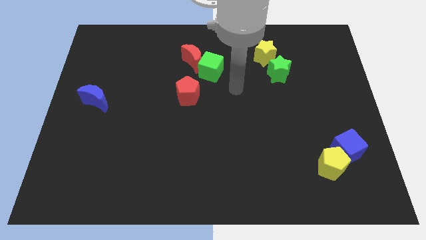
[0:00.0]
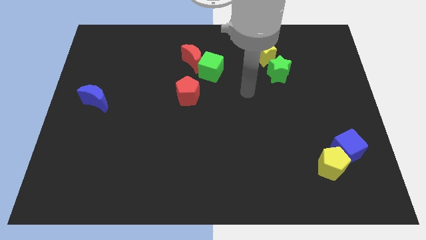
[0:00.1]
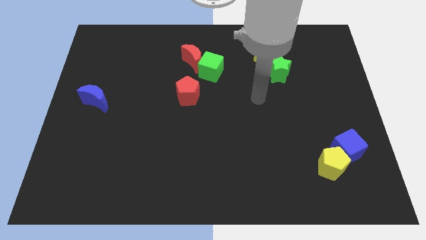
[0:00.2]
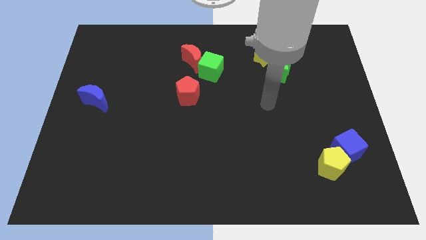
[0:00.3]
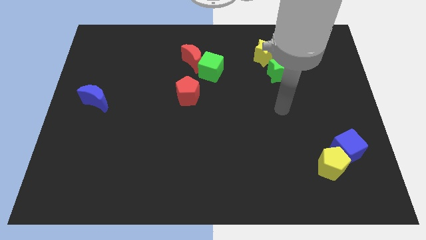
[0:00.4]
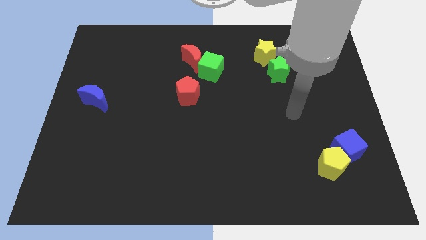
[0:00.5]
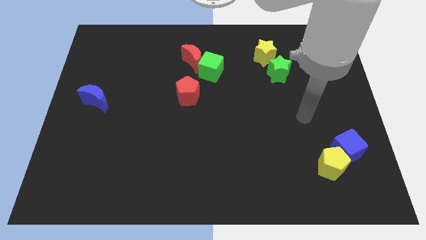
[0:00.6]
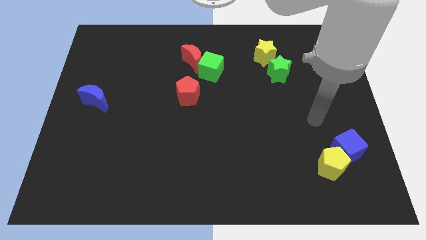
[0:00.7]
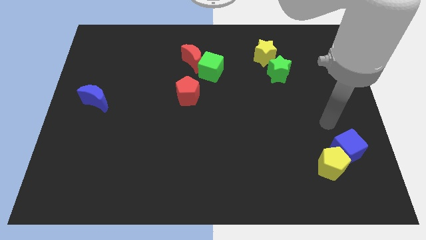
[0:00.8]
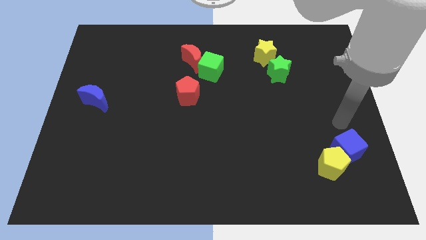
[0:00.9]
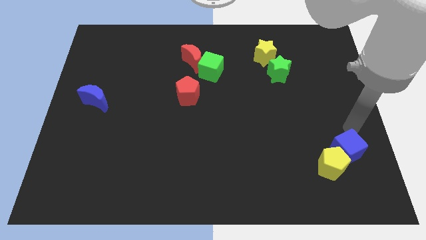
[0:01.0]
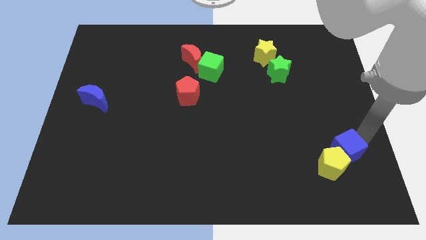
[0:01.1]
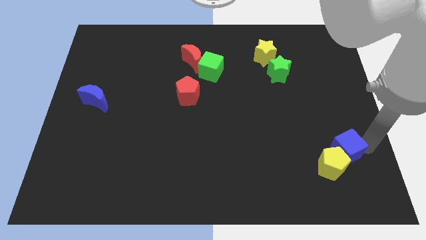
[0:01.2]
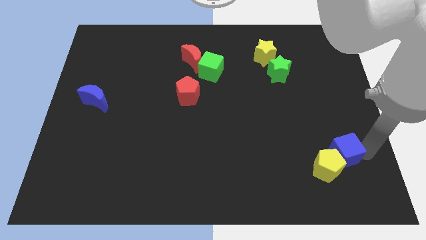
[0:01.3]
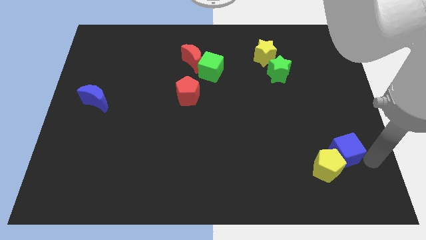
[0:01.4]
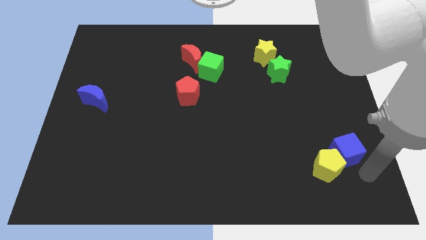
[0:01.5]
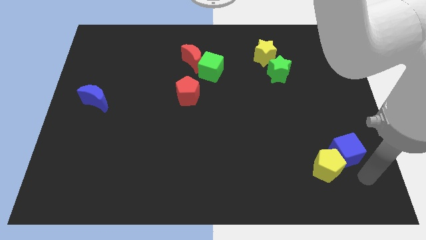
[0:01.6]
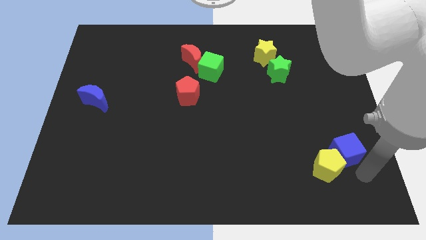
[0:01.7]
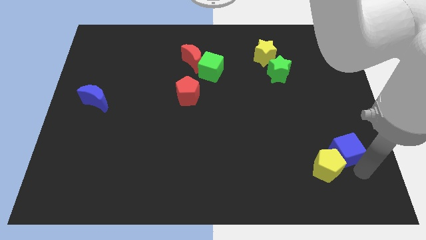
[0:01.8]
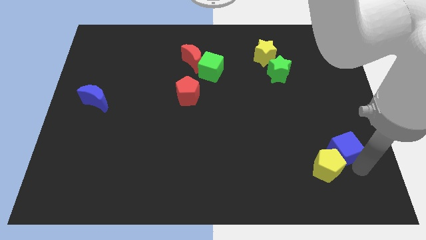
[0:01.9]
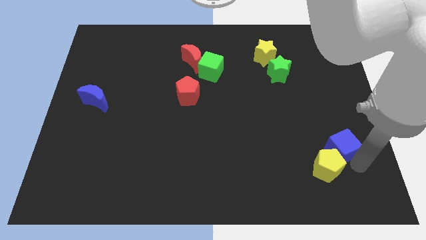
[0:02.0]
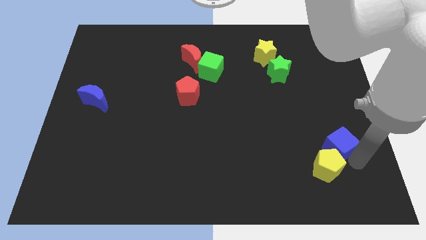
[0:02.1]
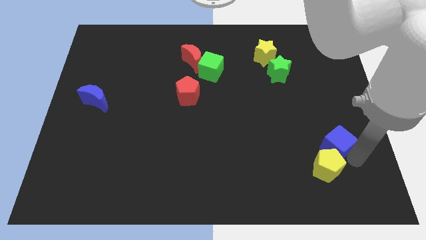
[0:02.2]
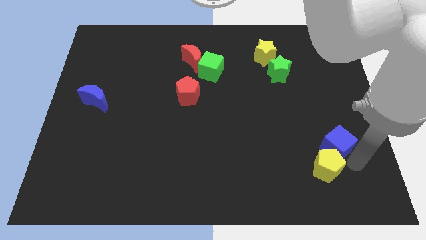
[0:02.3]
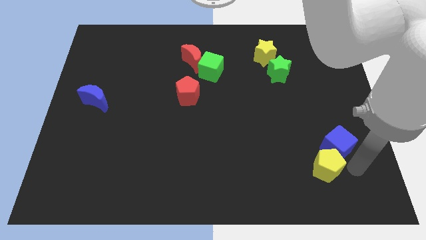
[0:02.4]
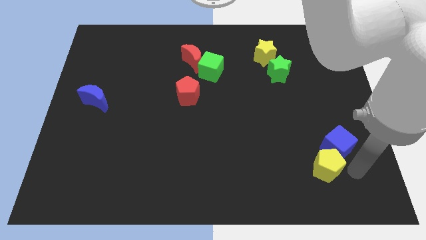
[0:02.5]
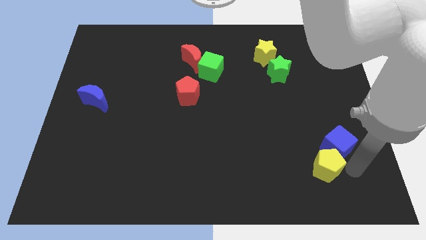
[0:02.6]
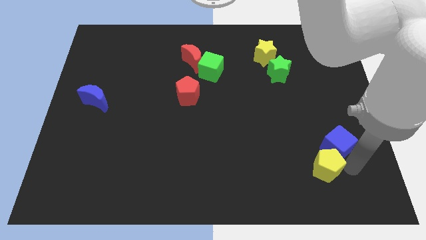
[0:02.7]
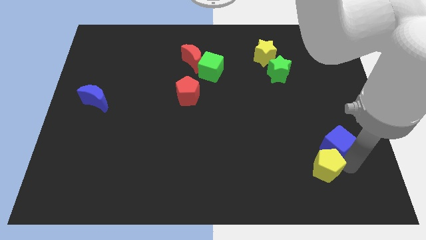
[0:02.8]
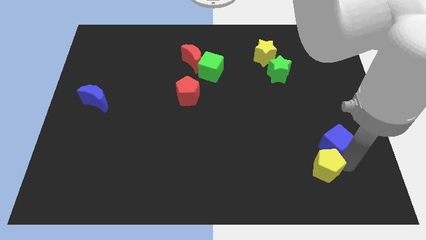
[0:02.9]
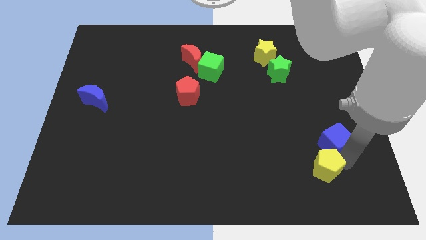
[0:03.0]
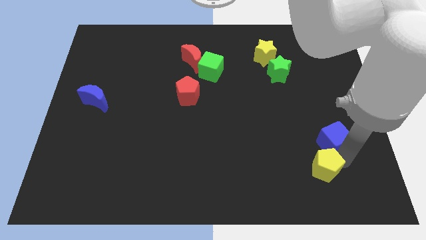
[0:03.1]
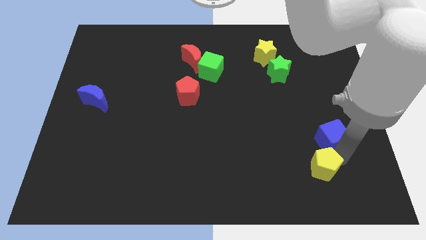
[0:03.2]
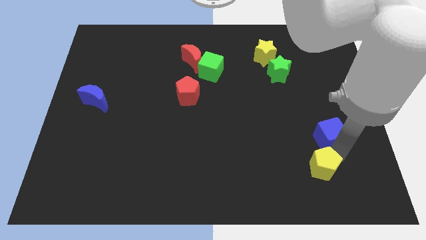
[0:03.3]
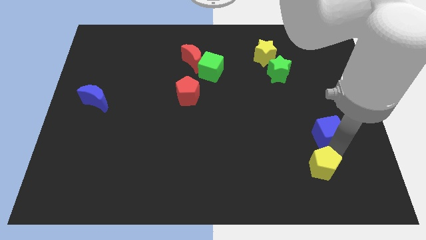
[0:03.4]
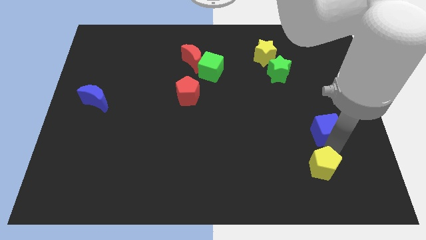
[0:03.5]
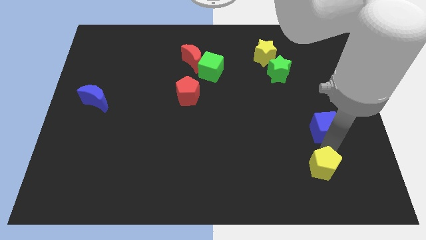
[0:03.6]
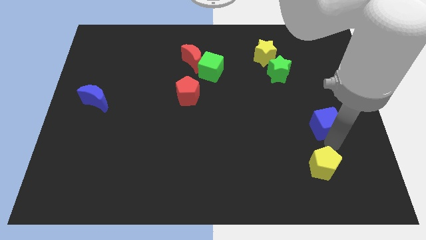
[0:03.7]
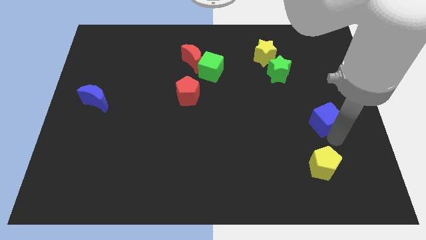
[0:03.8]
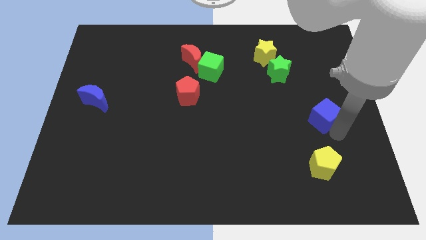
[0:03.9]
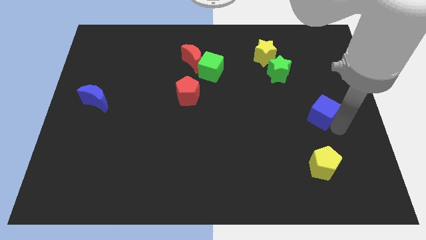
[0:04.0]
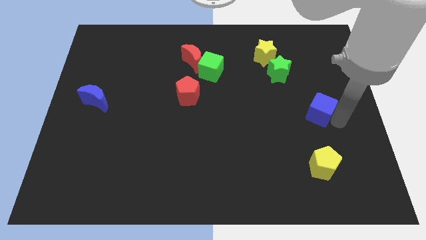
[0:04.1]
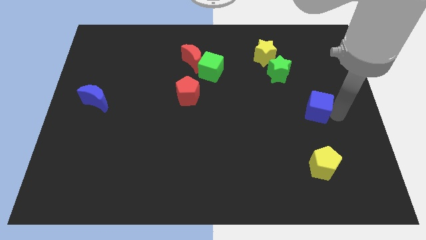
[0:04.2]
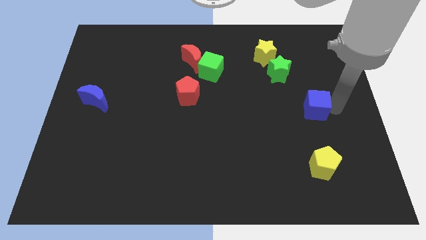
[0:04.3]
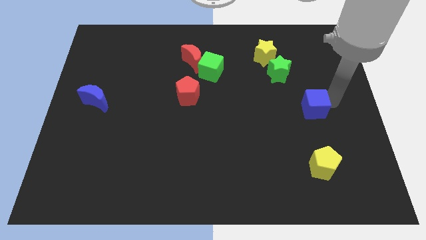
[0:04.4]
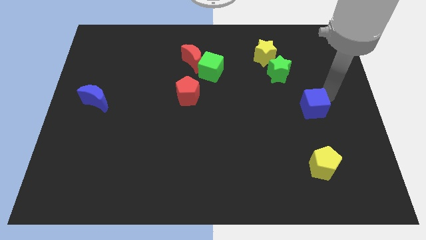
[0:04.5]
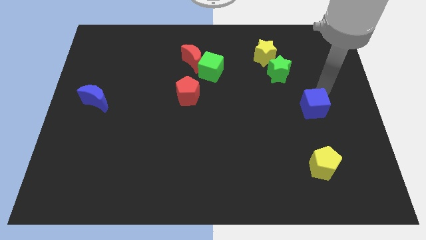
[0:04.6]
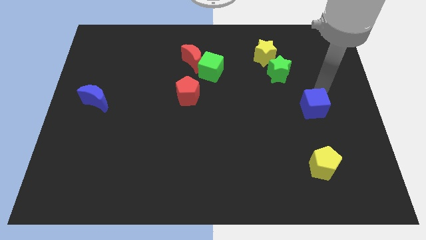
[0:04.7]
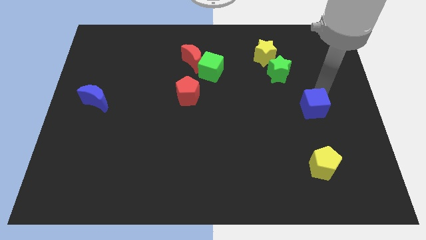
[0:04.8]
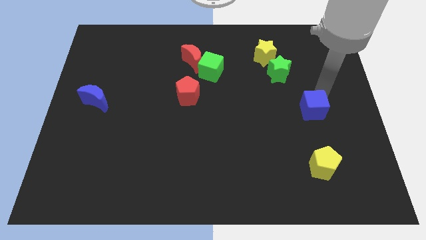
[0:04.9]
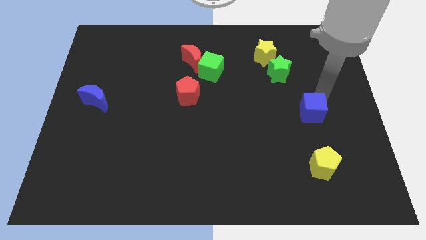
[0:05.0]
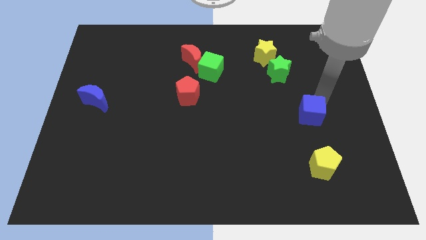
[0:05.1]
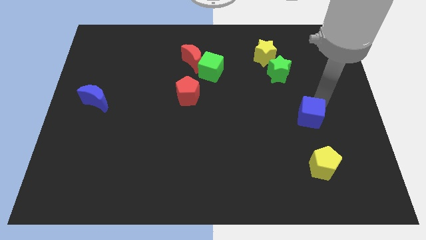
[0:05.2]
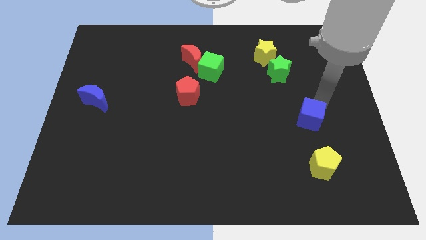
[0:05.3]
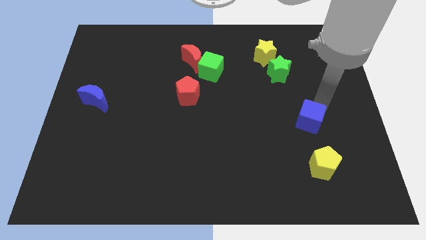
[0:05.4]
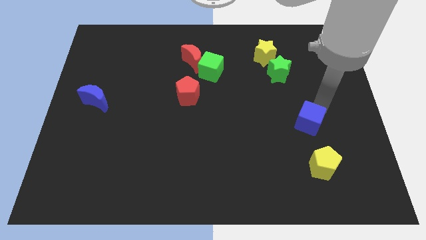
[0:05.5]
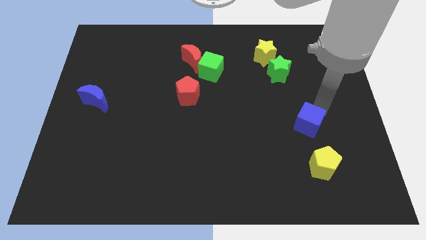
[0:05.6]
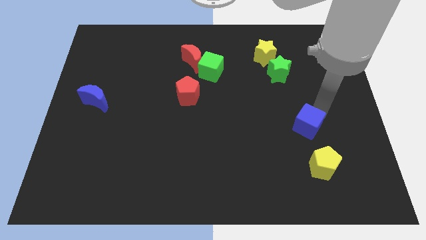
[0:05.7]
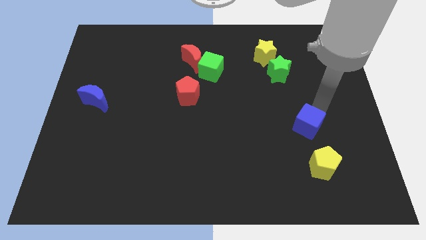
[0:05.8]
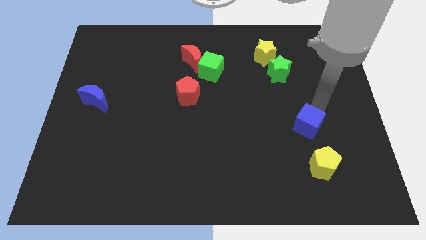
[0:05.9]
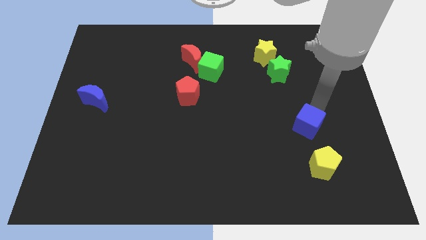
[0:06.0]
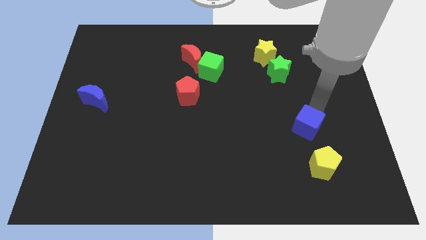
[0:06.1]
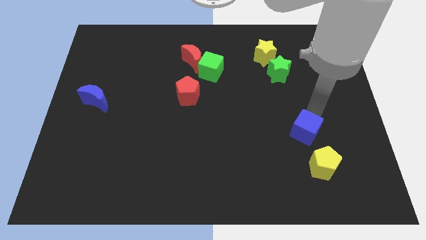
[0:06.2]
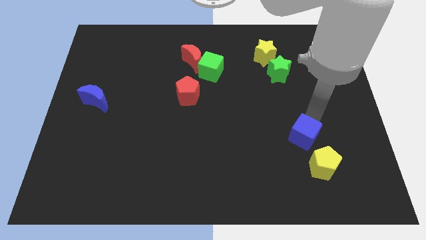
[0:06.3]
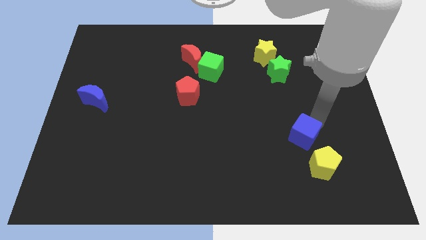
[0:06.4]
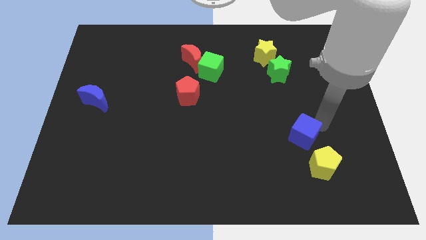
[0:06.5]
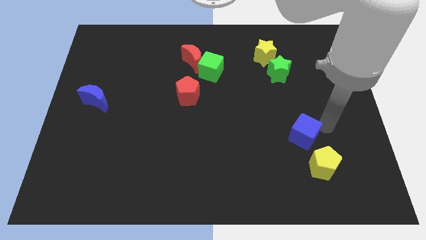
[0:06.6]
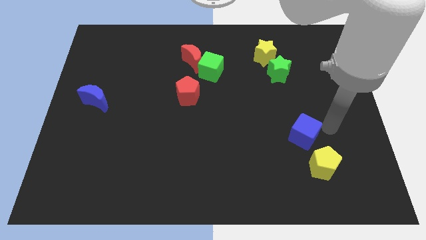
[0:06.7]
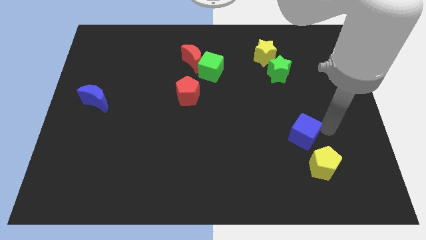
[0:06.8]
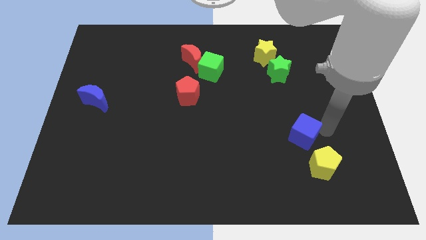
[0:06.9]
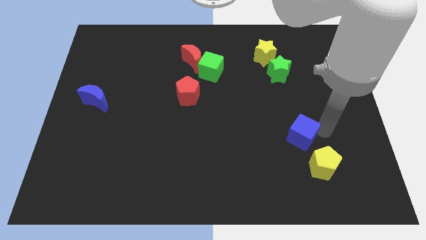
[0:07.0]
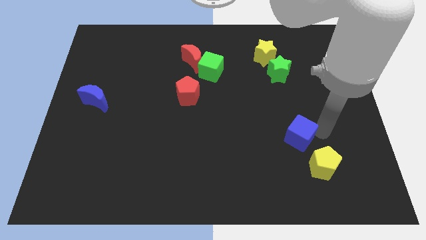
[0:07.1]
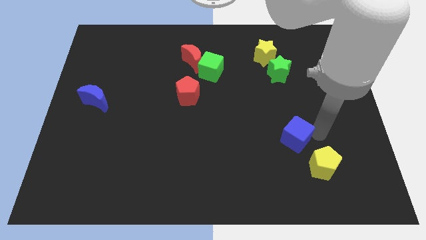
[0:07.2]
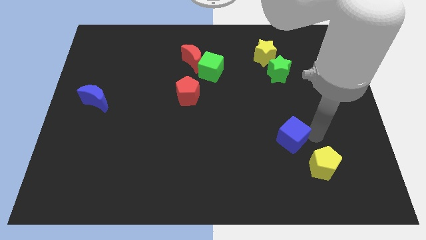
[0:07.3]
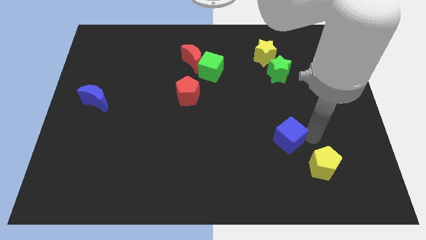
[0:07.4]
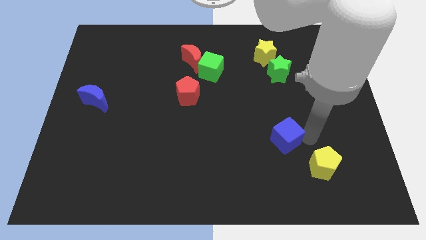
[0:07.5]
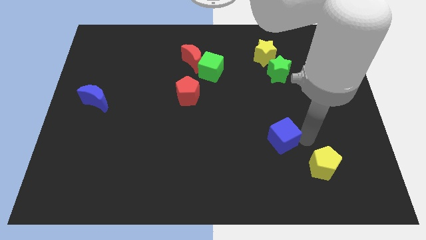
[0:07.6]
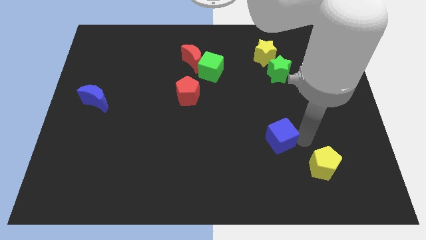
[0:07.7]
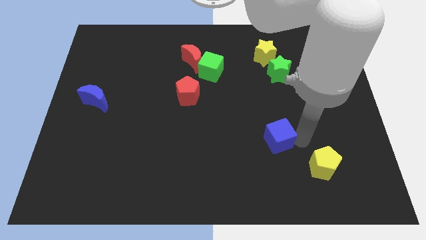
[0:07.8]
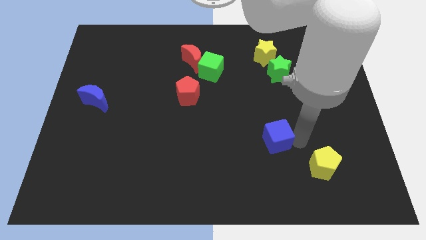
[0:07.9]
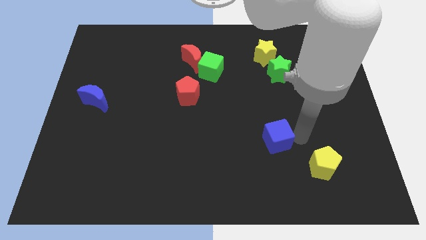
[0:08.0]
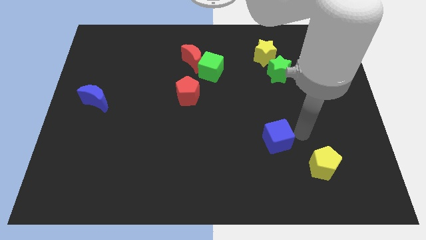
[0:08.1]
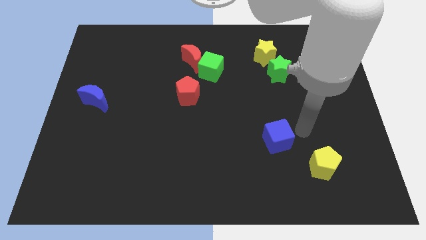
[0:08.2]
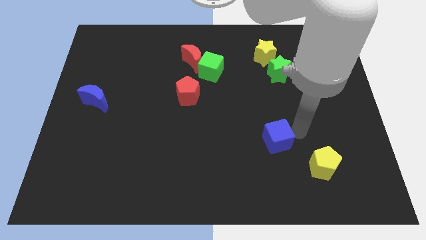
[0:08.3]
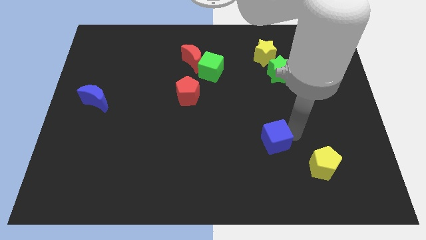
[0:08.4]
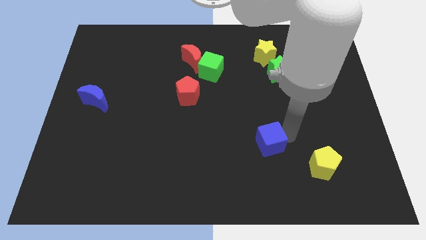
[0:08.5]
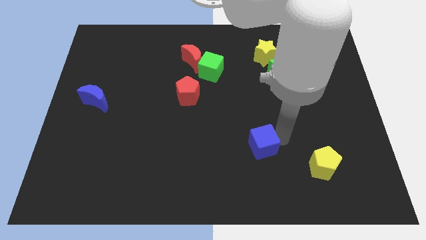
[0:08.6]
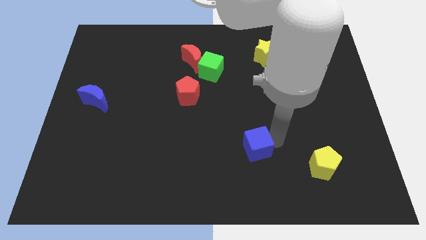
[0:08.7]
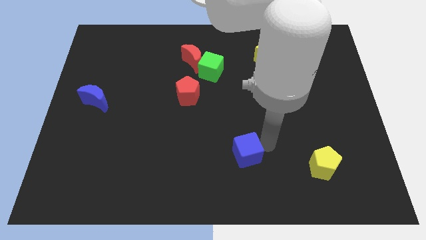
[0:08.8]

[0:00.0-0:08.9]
push the blue cube left
